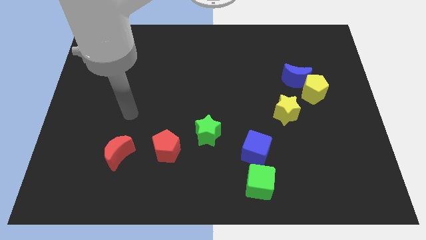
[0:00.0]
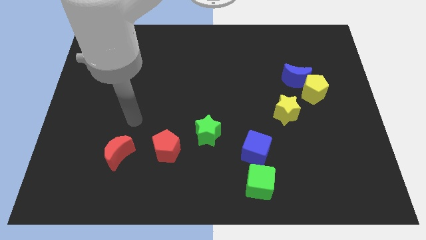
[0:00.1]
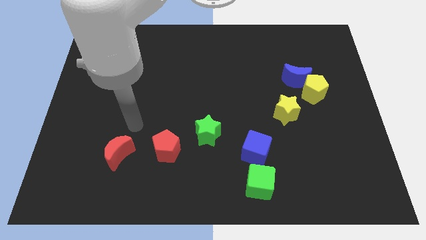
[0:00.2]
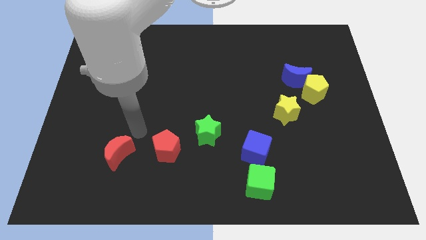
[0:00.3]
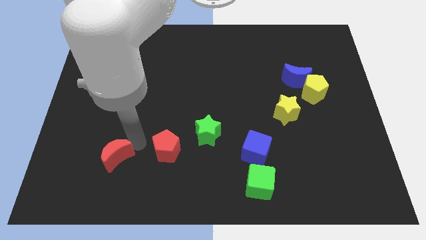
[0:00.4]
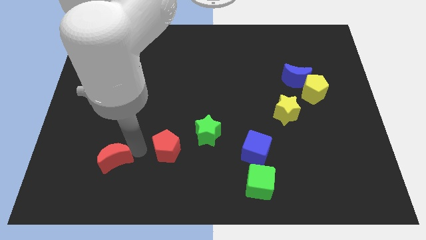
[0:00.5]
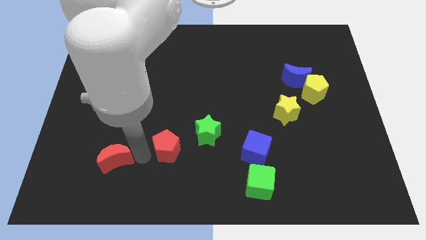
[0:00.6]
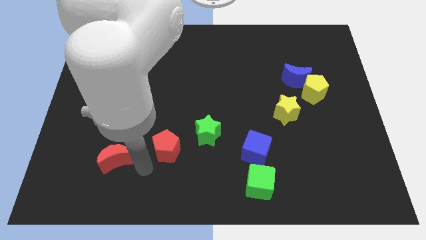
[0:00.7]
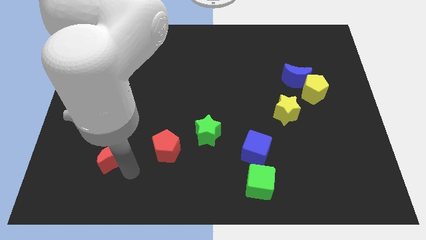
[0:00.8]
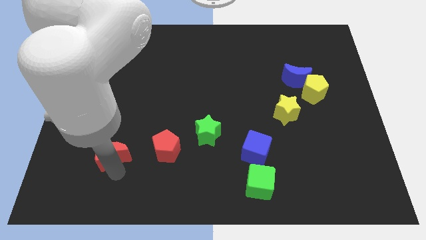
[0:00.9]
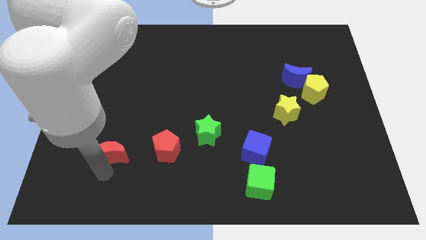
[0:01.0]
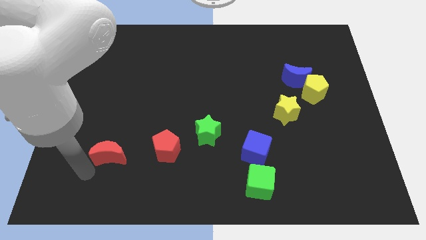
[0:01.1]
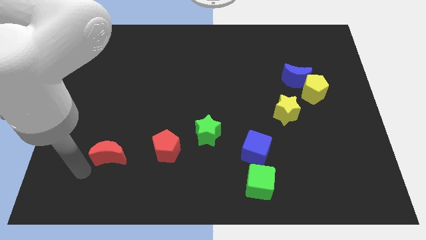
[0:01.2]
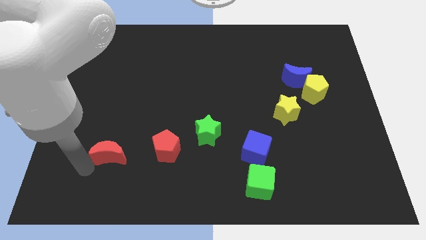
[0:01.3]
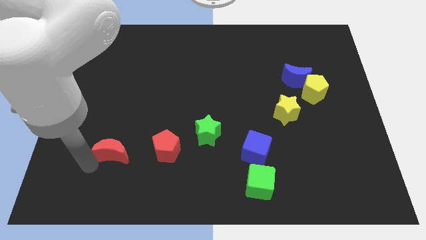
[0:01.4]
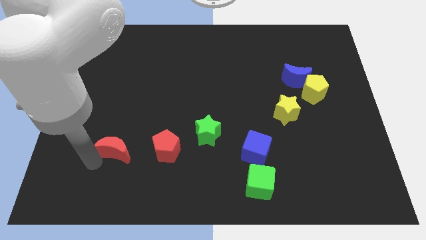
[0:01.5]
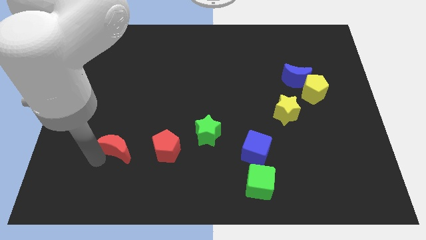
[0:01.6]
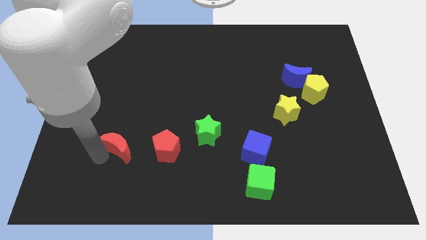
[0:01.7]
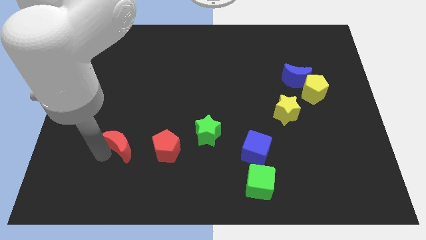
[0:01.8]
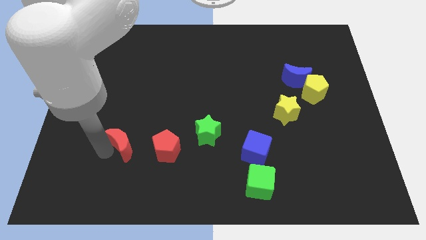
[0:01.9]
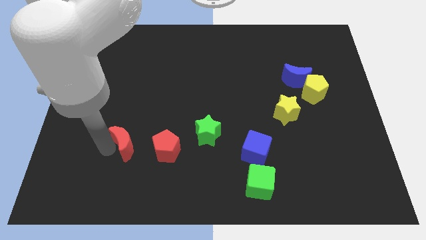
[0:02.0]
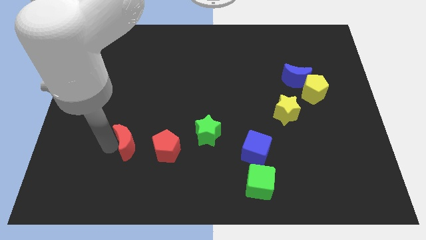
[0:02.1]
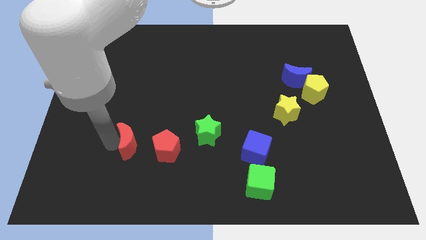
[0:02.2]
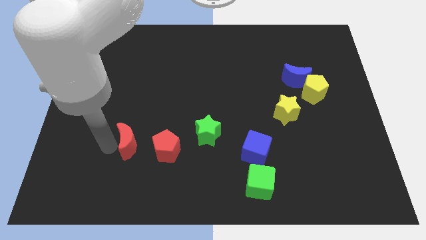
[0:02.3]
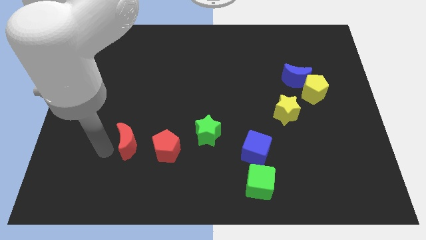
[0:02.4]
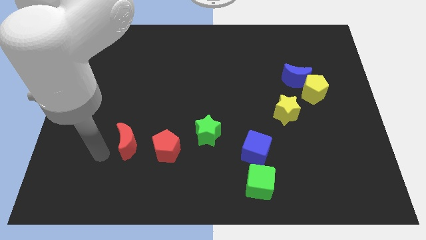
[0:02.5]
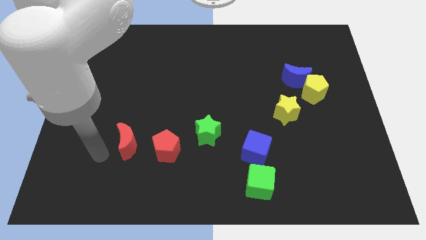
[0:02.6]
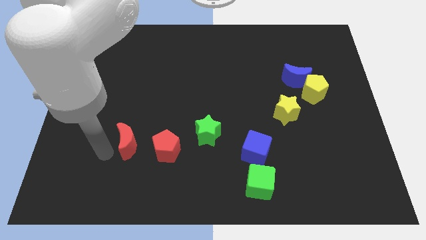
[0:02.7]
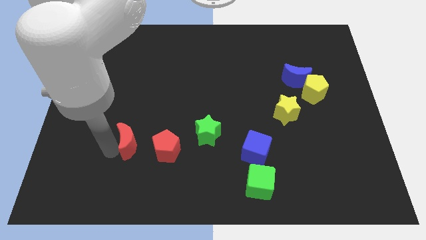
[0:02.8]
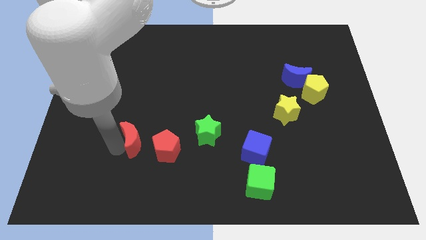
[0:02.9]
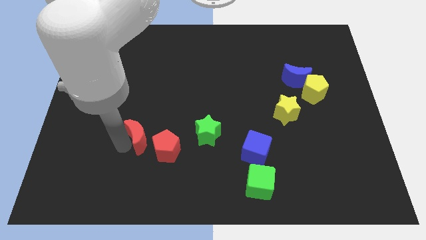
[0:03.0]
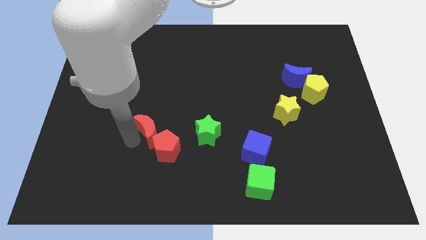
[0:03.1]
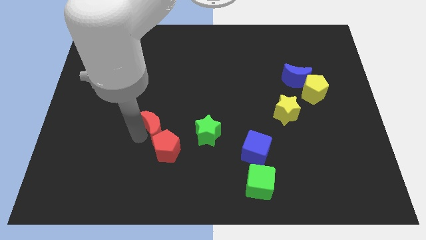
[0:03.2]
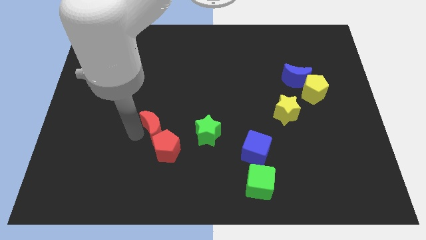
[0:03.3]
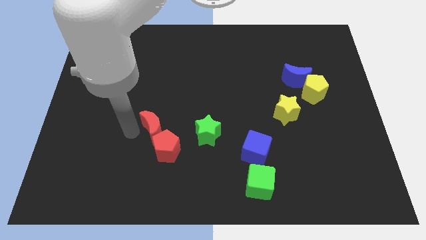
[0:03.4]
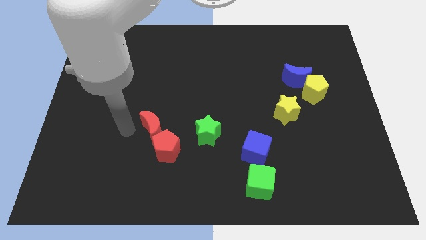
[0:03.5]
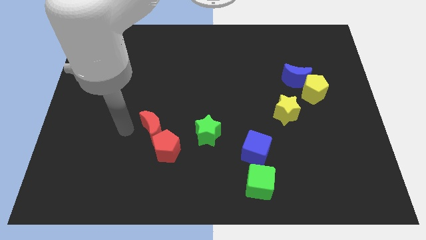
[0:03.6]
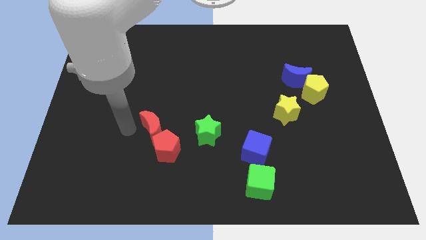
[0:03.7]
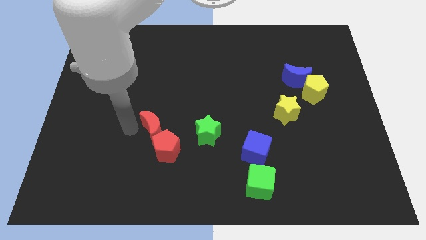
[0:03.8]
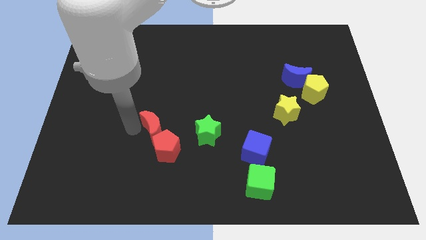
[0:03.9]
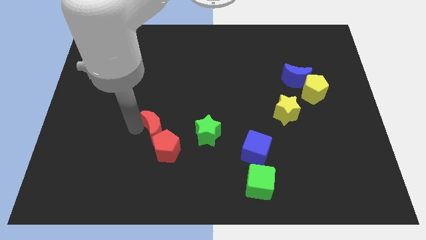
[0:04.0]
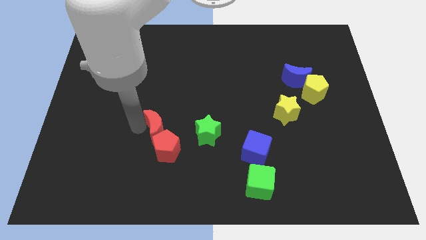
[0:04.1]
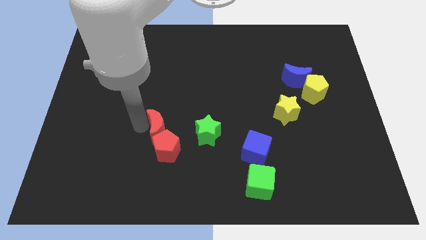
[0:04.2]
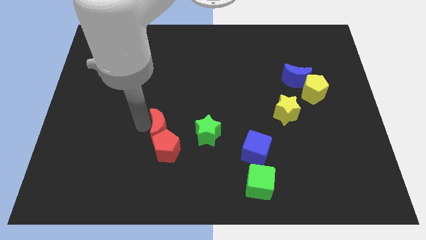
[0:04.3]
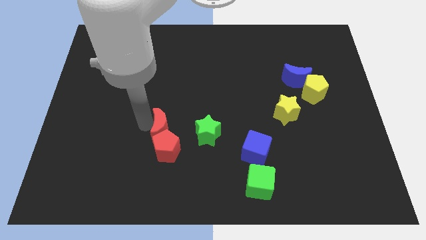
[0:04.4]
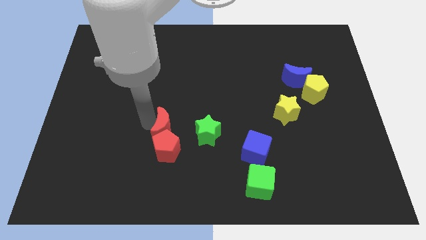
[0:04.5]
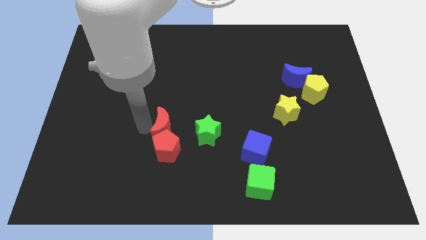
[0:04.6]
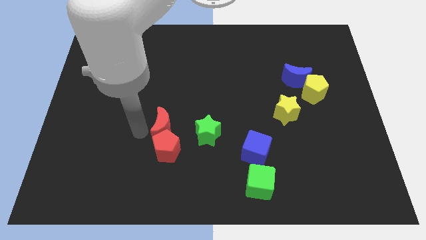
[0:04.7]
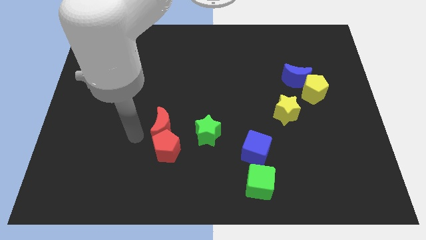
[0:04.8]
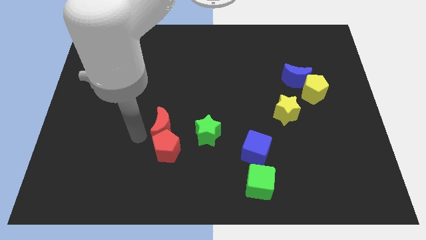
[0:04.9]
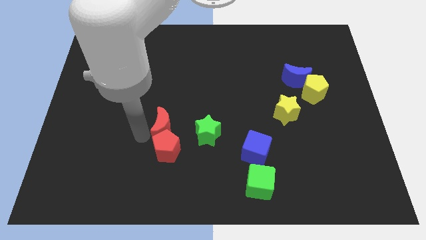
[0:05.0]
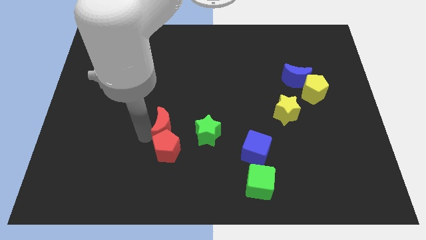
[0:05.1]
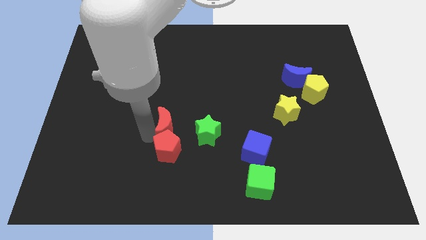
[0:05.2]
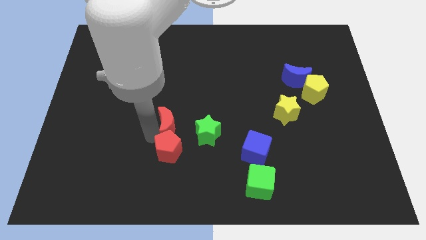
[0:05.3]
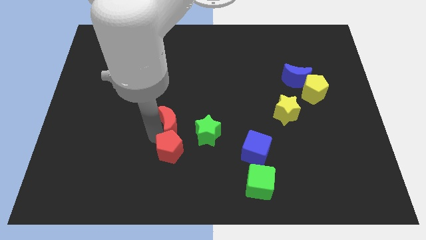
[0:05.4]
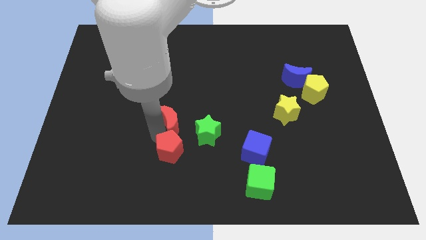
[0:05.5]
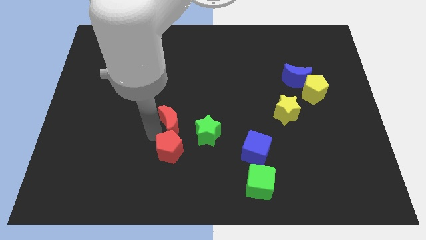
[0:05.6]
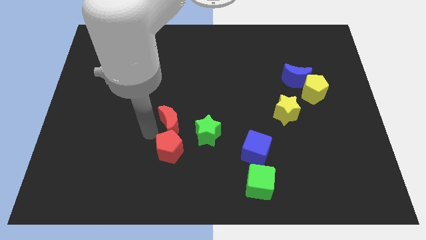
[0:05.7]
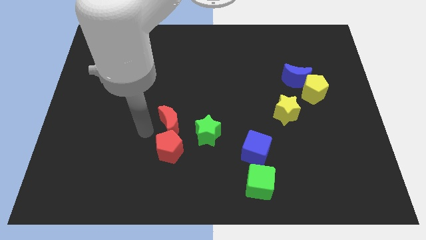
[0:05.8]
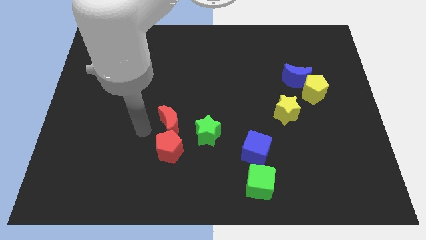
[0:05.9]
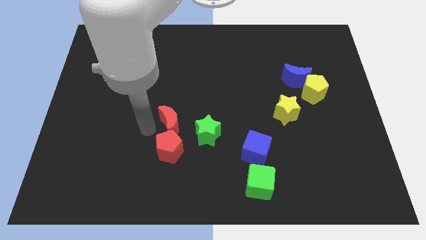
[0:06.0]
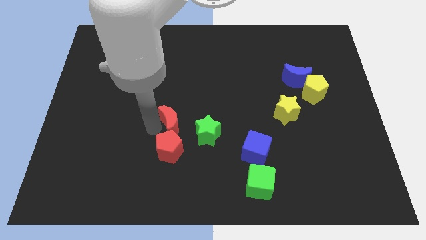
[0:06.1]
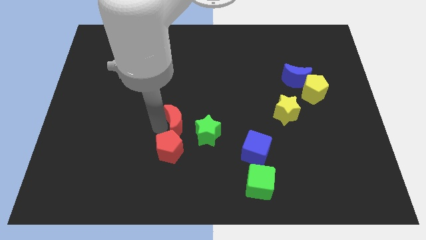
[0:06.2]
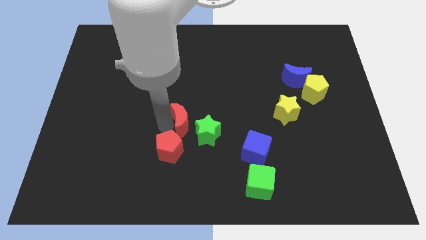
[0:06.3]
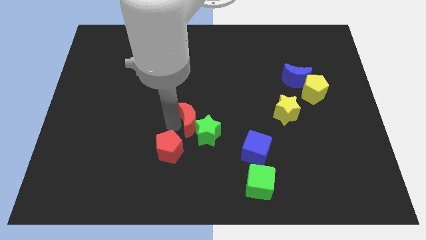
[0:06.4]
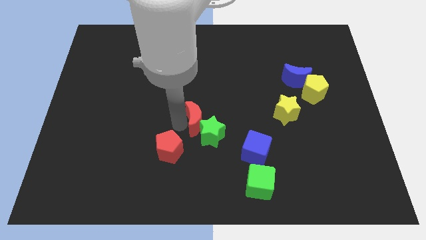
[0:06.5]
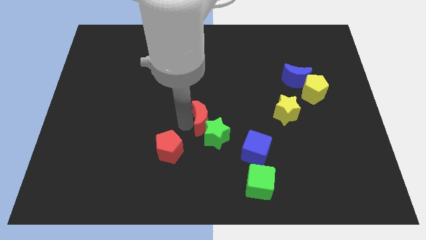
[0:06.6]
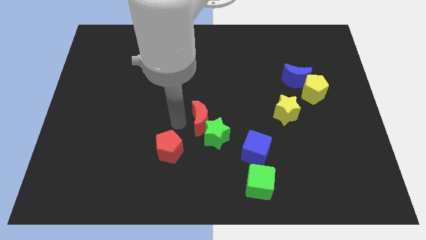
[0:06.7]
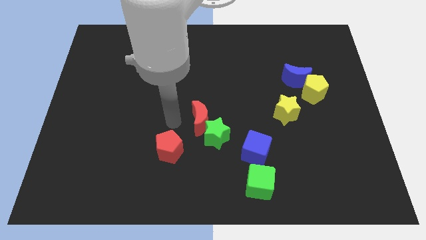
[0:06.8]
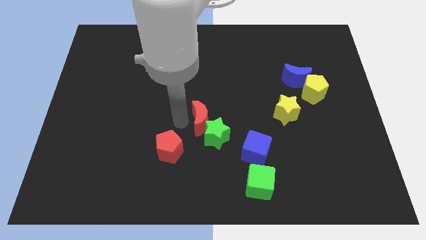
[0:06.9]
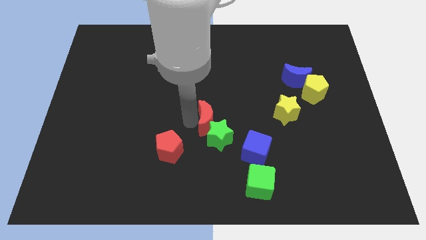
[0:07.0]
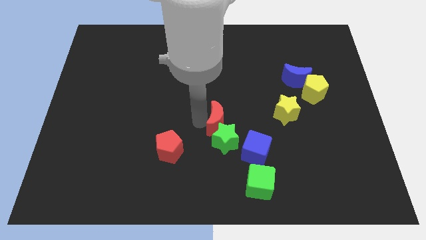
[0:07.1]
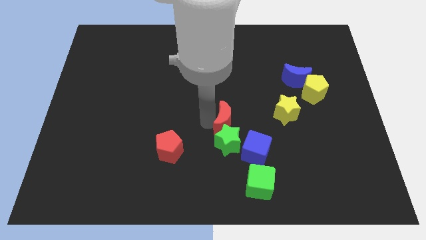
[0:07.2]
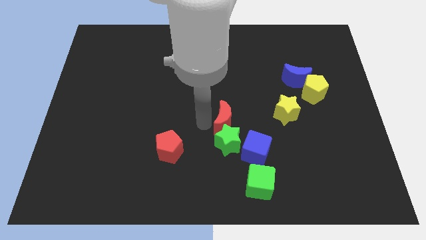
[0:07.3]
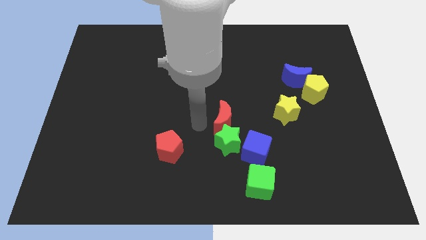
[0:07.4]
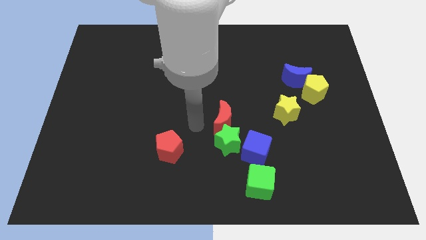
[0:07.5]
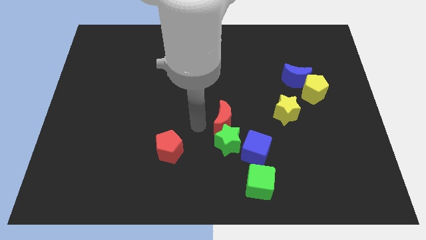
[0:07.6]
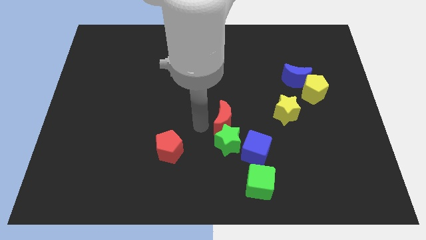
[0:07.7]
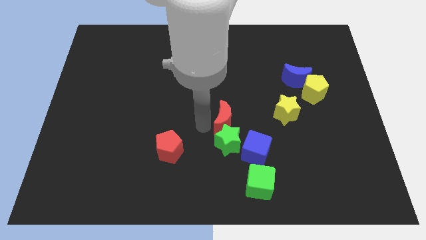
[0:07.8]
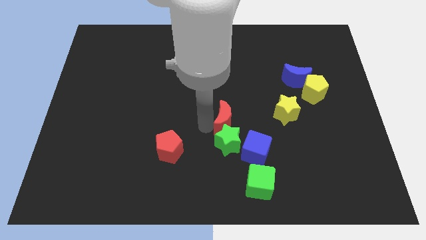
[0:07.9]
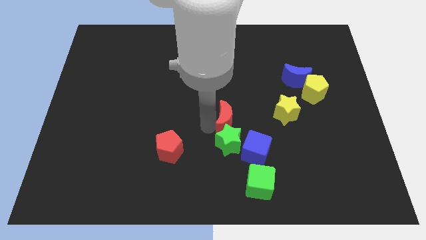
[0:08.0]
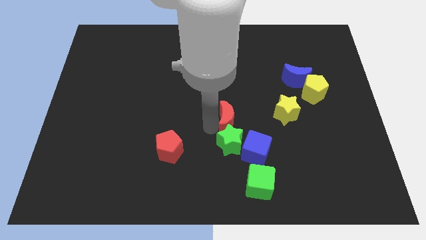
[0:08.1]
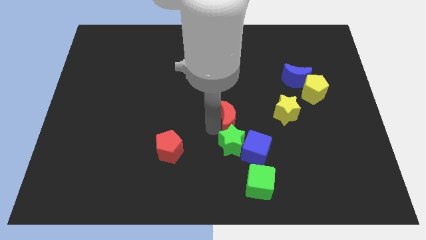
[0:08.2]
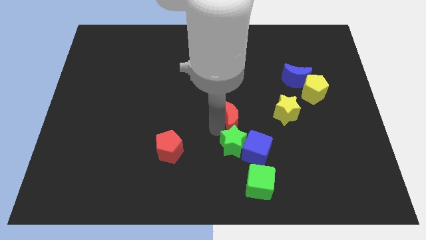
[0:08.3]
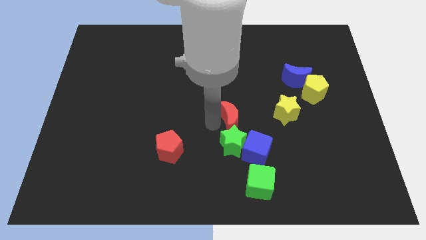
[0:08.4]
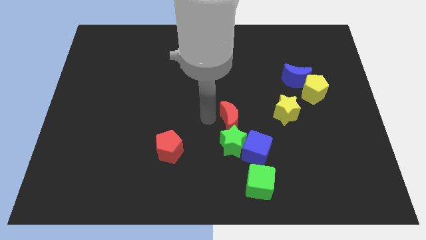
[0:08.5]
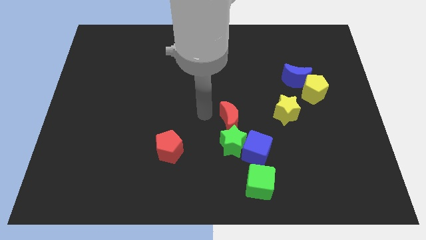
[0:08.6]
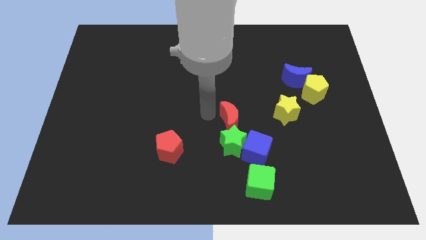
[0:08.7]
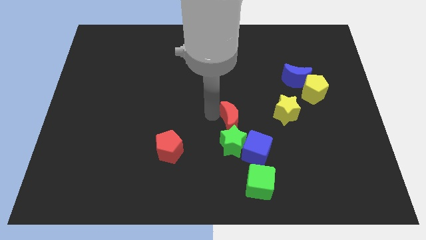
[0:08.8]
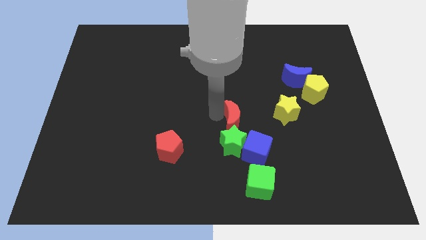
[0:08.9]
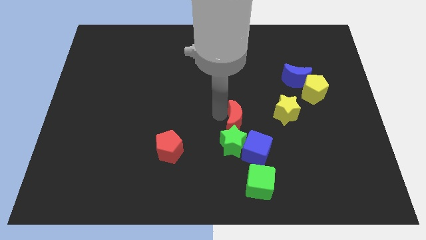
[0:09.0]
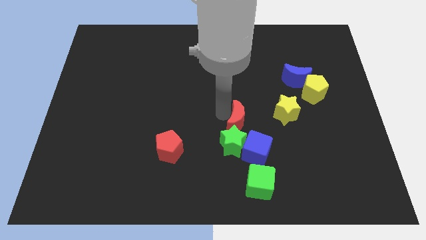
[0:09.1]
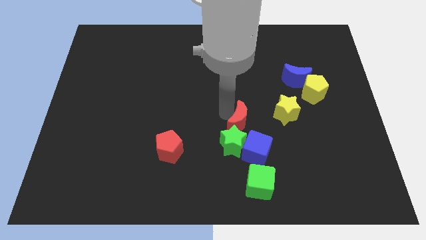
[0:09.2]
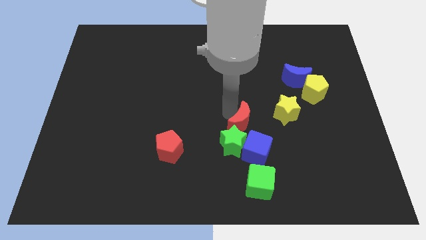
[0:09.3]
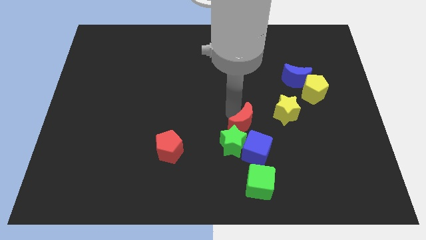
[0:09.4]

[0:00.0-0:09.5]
put the red moon to the bottom left of the yellow star
